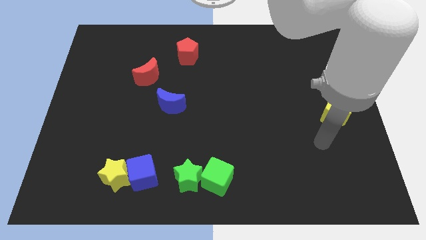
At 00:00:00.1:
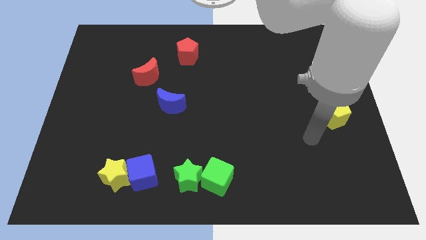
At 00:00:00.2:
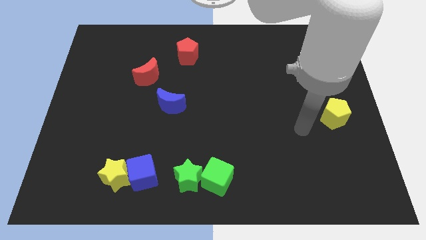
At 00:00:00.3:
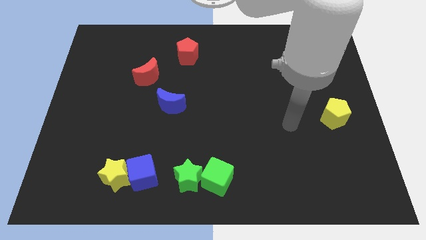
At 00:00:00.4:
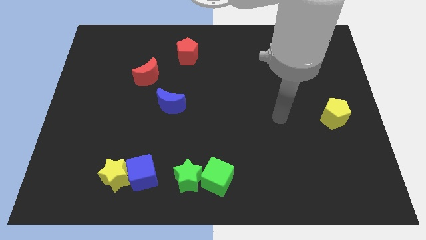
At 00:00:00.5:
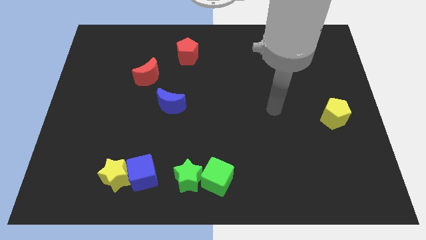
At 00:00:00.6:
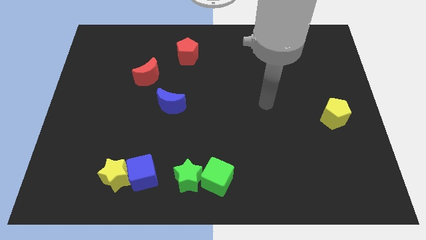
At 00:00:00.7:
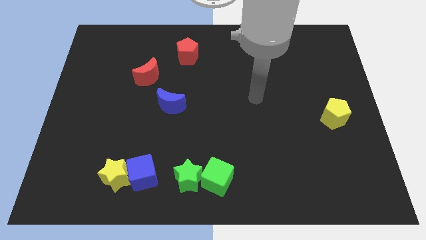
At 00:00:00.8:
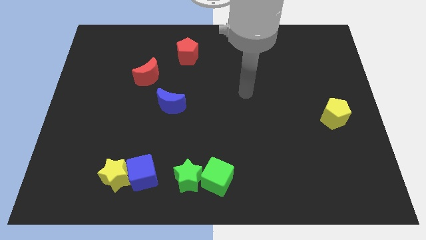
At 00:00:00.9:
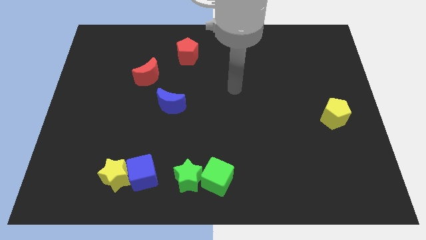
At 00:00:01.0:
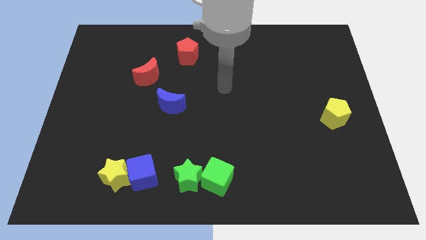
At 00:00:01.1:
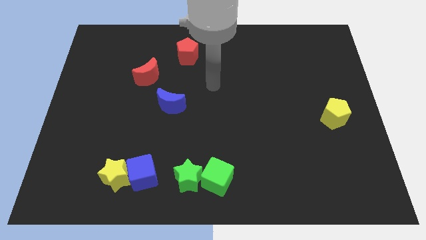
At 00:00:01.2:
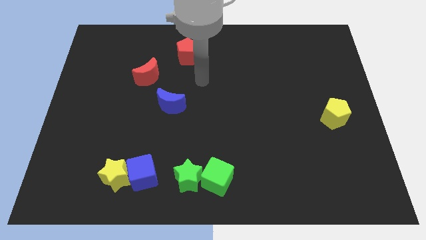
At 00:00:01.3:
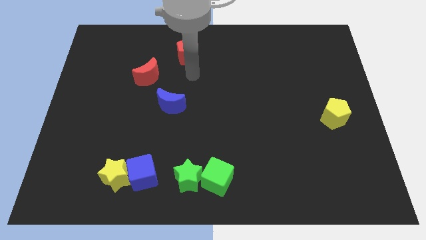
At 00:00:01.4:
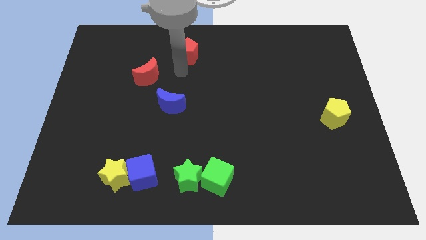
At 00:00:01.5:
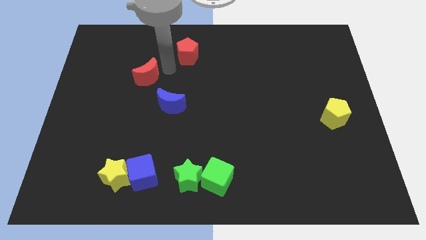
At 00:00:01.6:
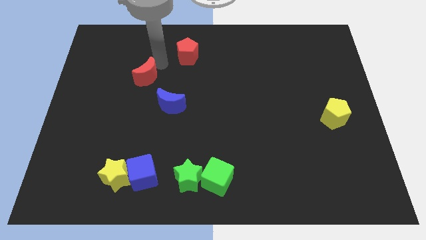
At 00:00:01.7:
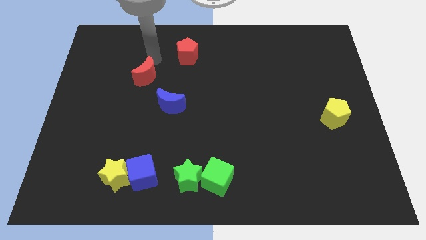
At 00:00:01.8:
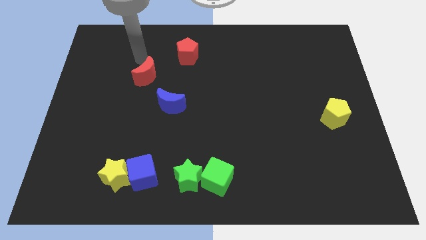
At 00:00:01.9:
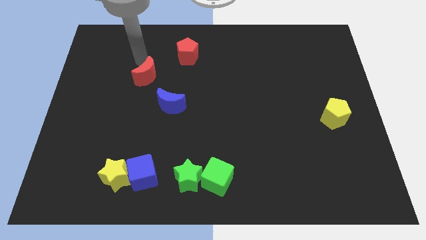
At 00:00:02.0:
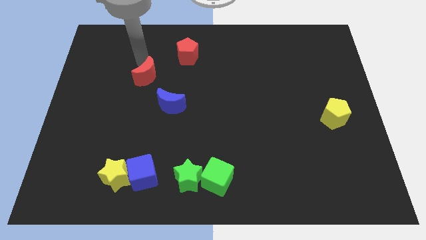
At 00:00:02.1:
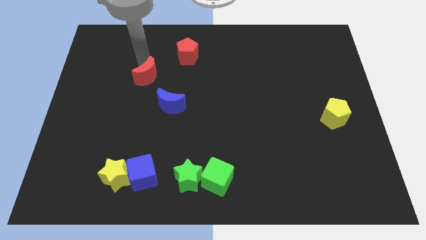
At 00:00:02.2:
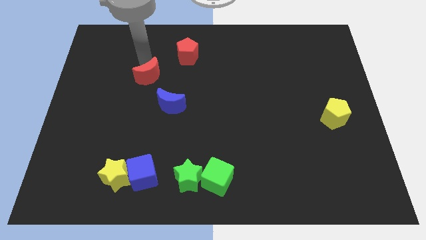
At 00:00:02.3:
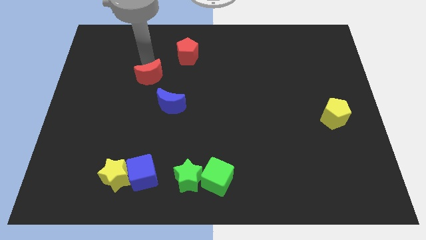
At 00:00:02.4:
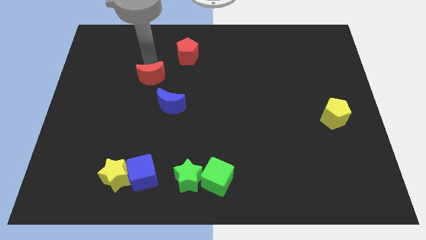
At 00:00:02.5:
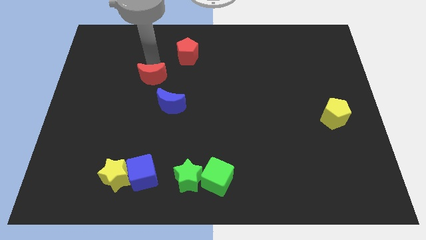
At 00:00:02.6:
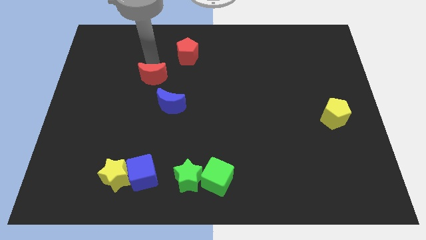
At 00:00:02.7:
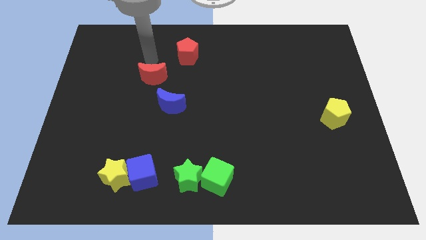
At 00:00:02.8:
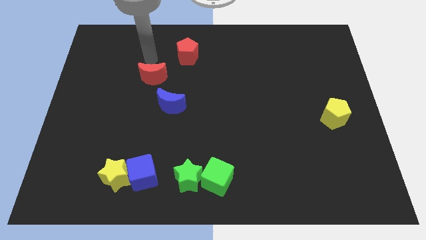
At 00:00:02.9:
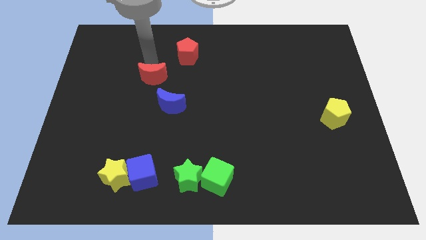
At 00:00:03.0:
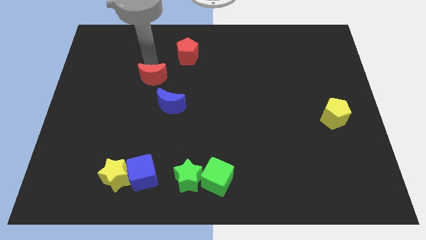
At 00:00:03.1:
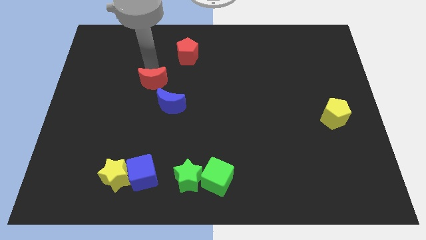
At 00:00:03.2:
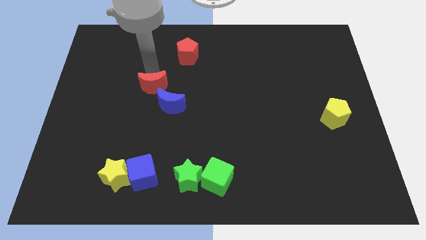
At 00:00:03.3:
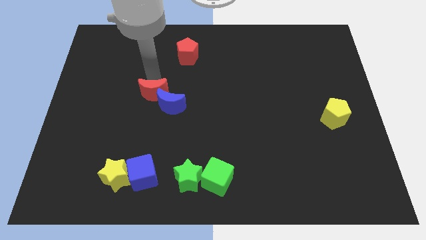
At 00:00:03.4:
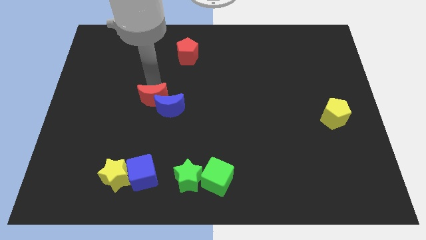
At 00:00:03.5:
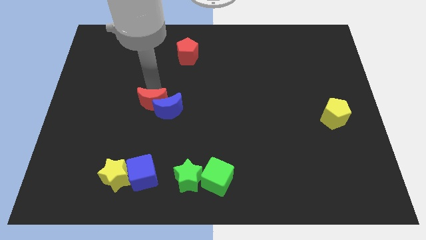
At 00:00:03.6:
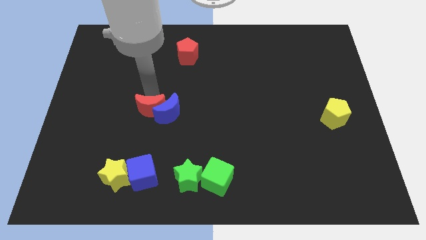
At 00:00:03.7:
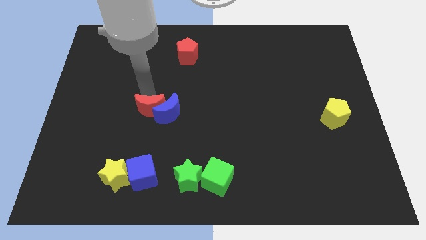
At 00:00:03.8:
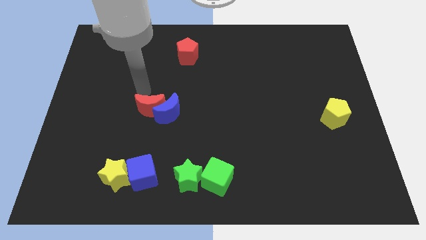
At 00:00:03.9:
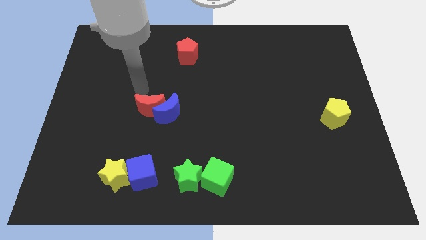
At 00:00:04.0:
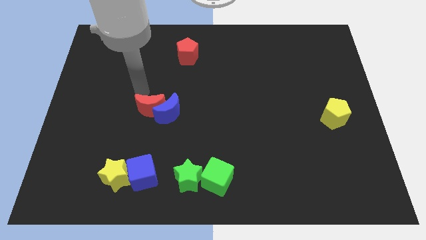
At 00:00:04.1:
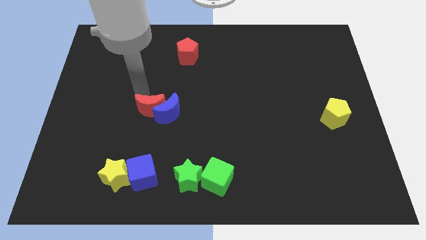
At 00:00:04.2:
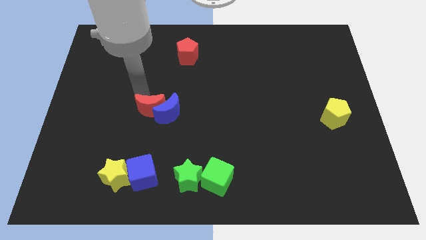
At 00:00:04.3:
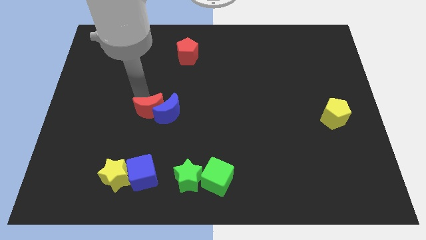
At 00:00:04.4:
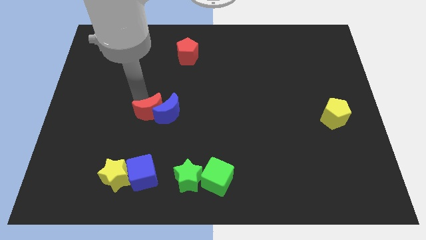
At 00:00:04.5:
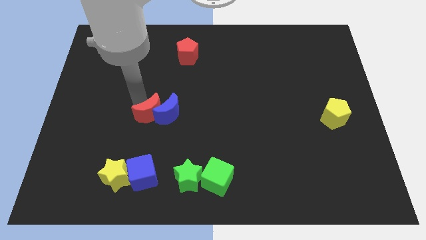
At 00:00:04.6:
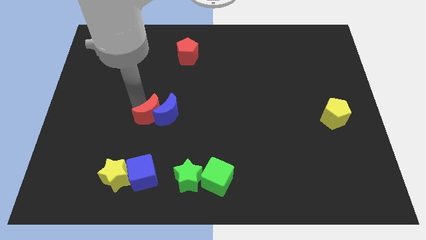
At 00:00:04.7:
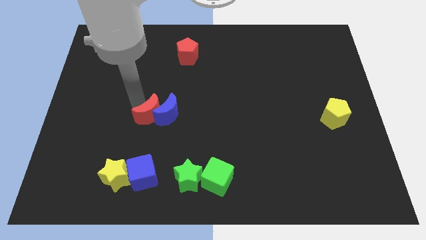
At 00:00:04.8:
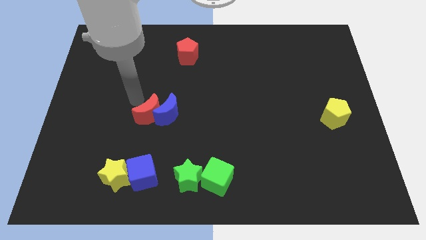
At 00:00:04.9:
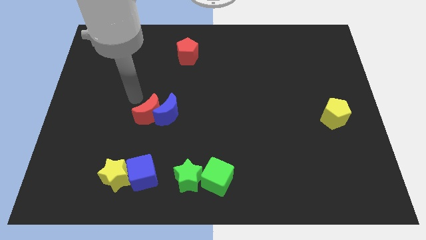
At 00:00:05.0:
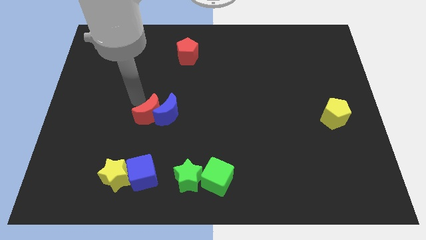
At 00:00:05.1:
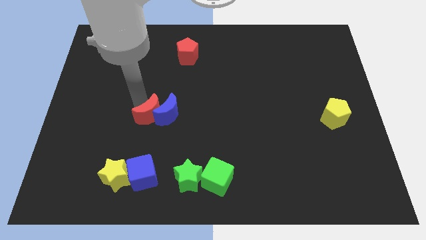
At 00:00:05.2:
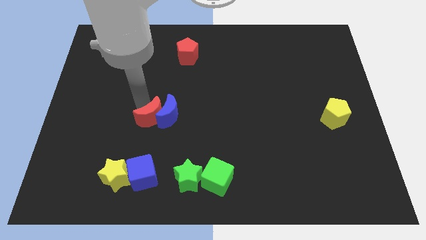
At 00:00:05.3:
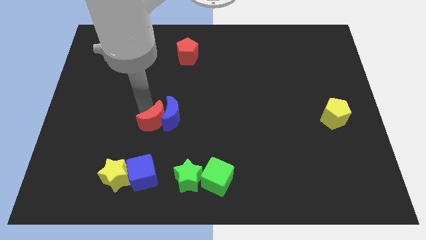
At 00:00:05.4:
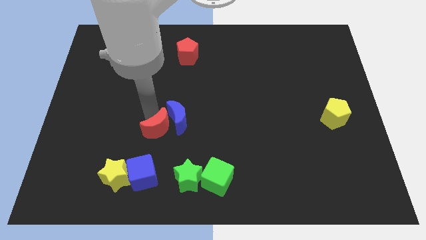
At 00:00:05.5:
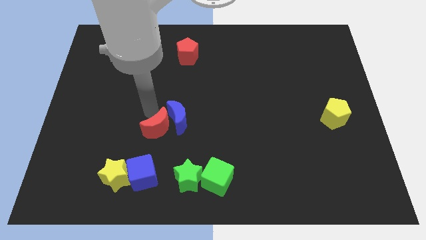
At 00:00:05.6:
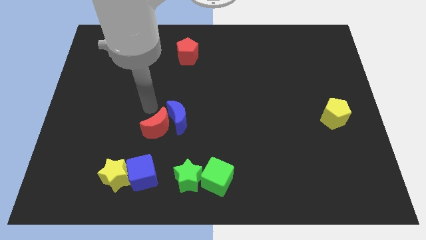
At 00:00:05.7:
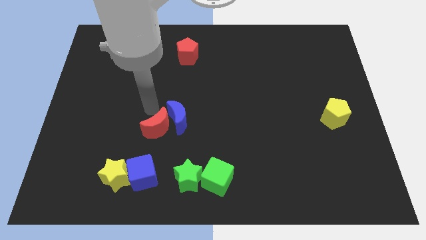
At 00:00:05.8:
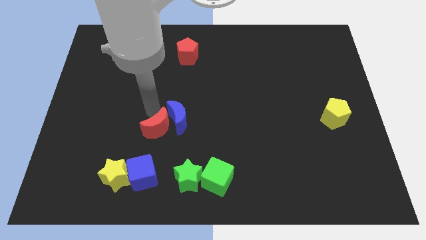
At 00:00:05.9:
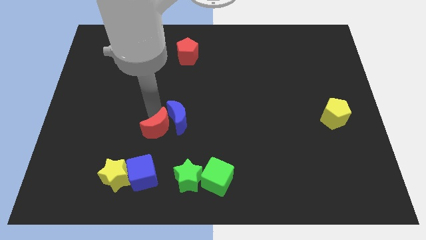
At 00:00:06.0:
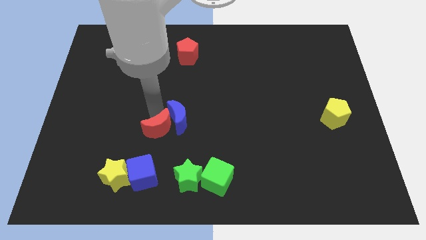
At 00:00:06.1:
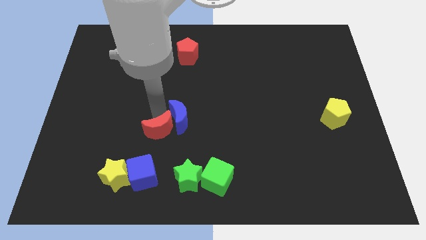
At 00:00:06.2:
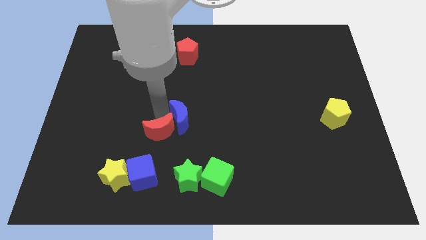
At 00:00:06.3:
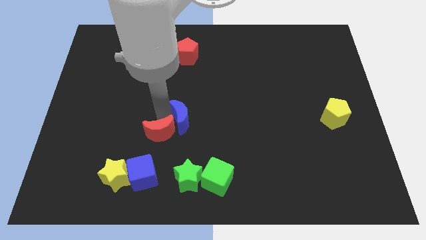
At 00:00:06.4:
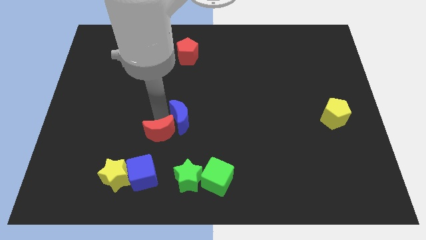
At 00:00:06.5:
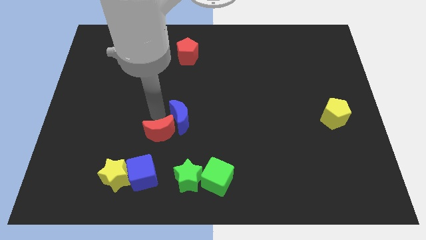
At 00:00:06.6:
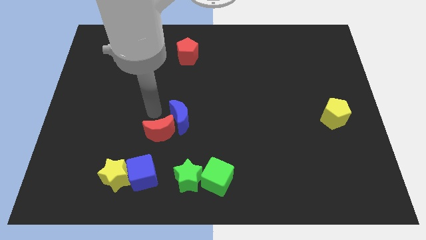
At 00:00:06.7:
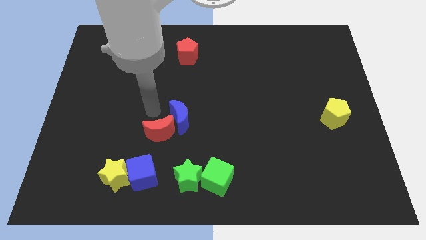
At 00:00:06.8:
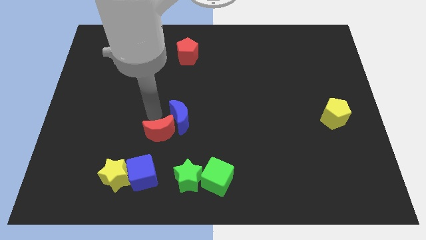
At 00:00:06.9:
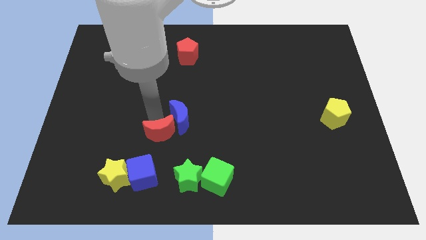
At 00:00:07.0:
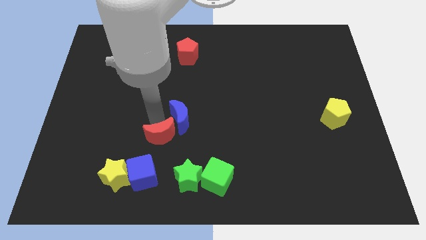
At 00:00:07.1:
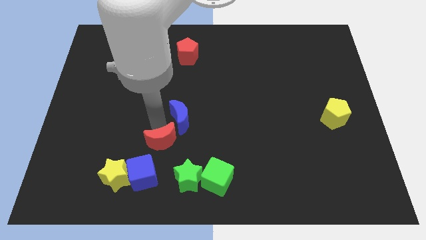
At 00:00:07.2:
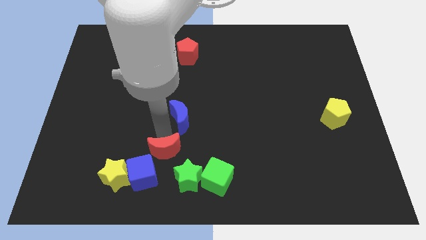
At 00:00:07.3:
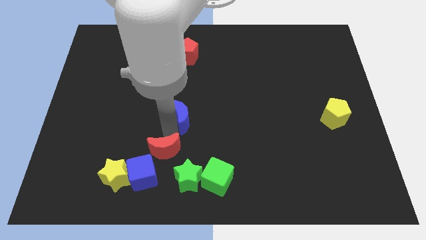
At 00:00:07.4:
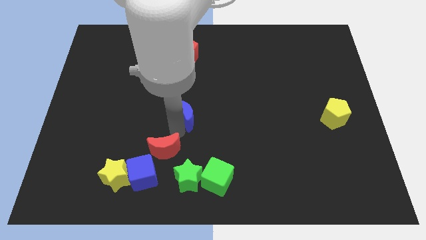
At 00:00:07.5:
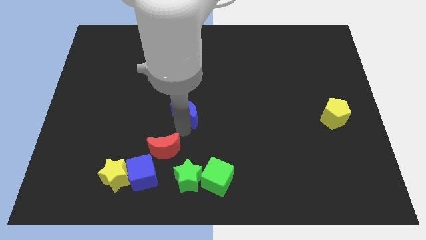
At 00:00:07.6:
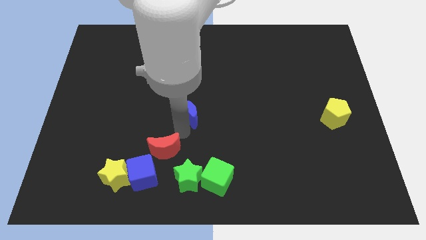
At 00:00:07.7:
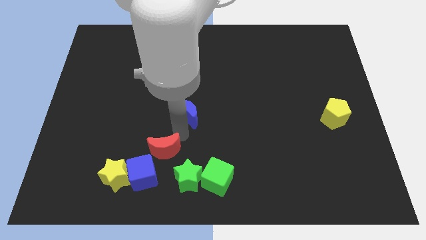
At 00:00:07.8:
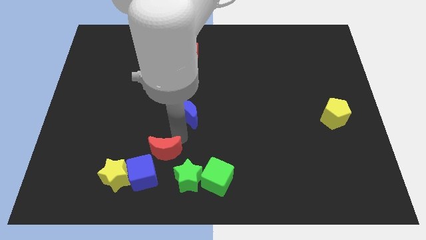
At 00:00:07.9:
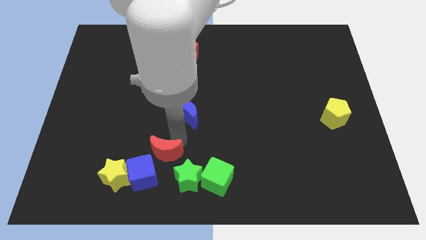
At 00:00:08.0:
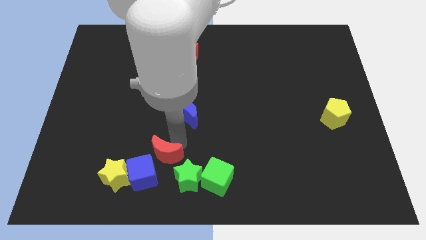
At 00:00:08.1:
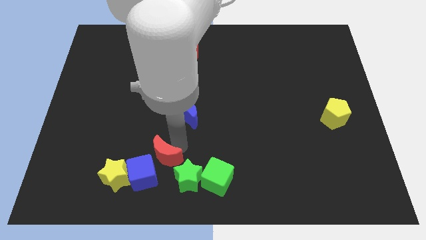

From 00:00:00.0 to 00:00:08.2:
move the red moon to the blue cube
